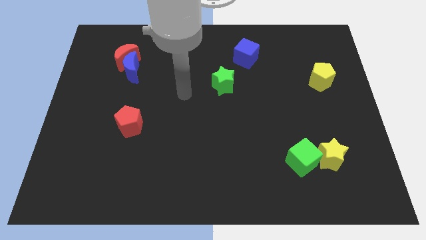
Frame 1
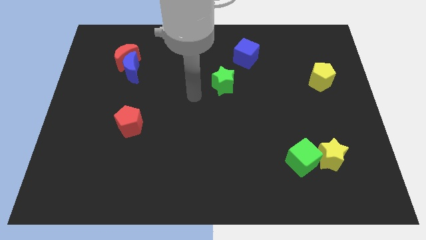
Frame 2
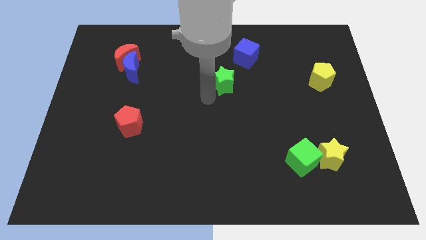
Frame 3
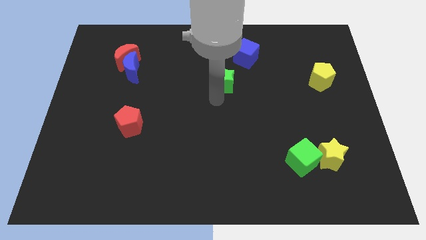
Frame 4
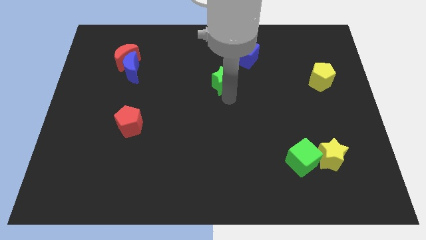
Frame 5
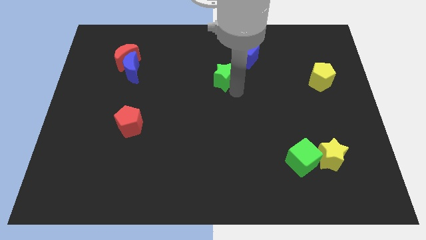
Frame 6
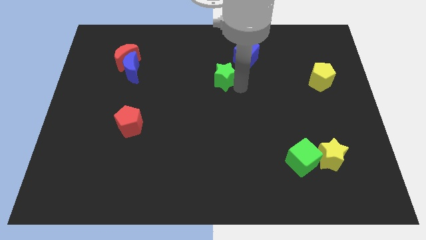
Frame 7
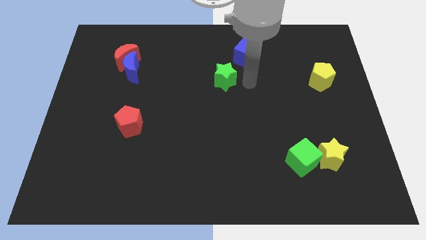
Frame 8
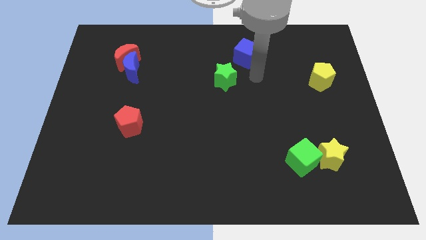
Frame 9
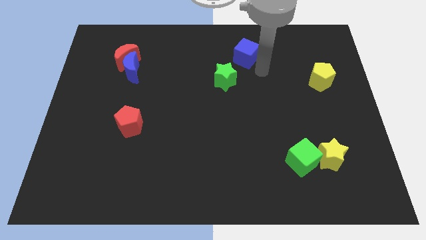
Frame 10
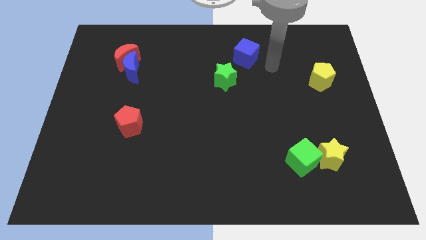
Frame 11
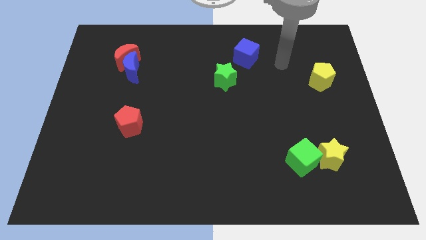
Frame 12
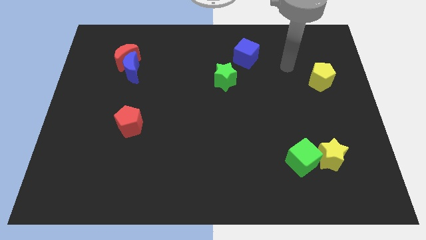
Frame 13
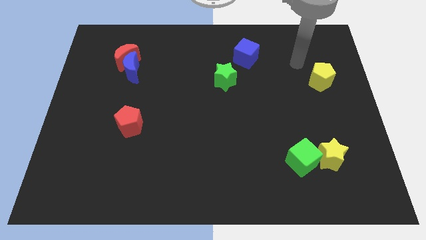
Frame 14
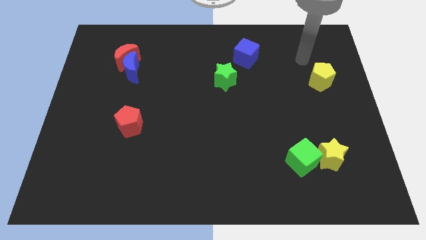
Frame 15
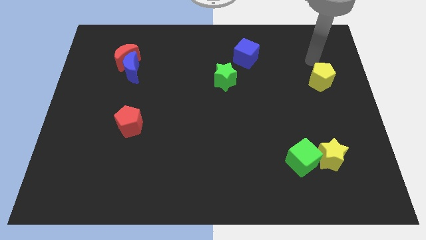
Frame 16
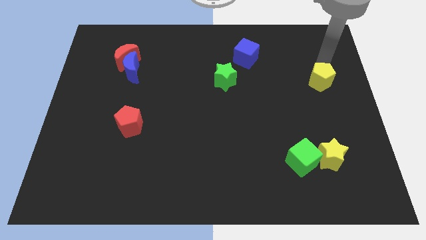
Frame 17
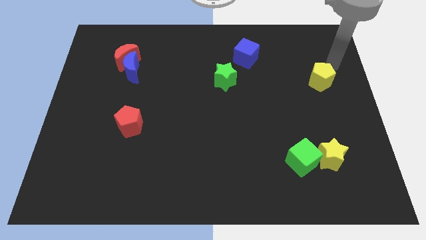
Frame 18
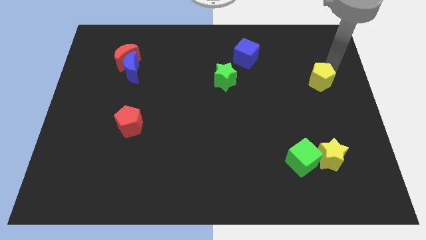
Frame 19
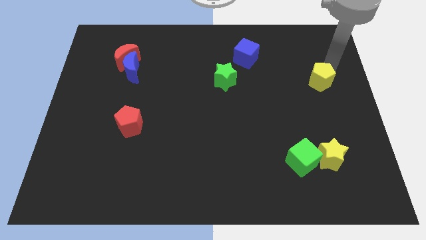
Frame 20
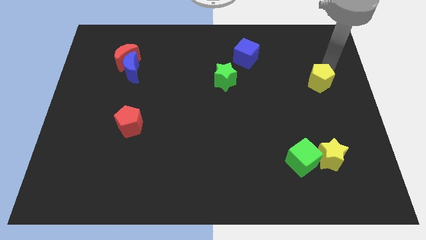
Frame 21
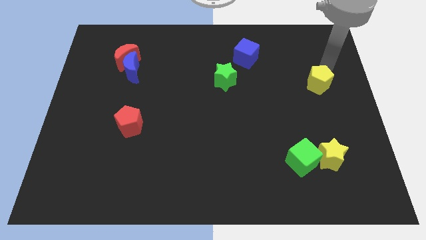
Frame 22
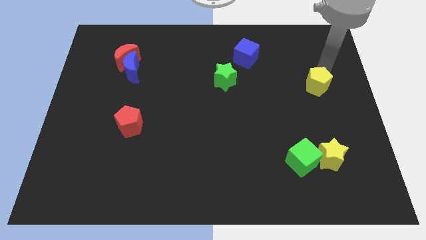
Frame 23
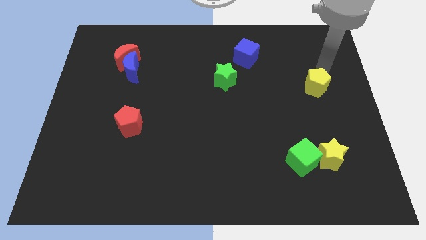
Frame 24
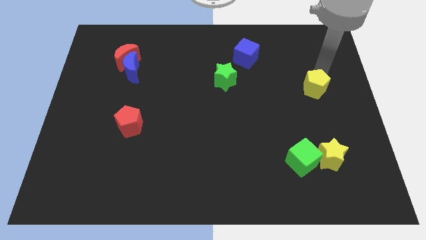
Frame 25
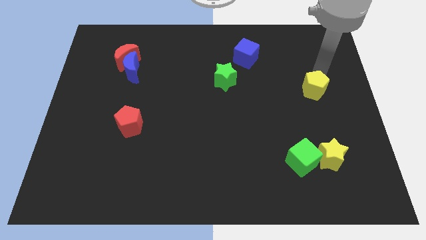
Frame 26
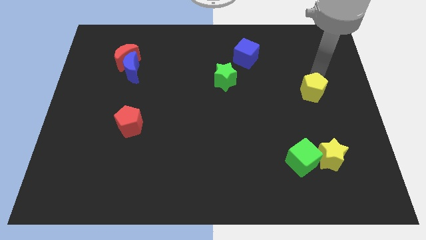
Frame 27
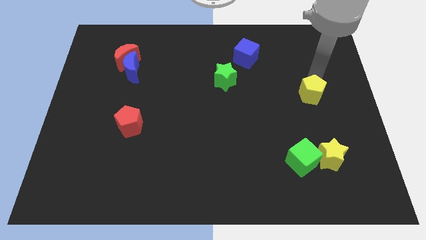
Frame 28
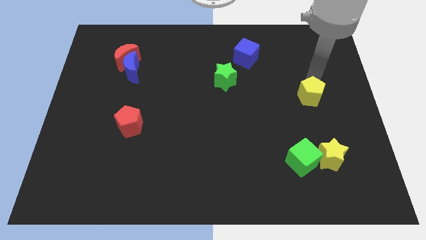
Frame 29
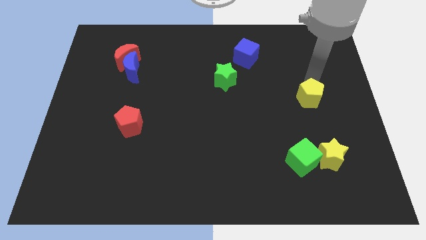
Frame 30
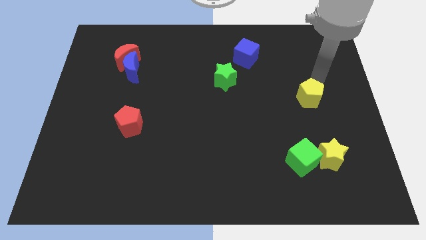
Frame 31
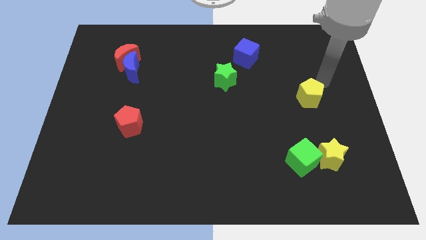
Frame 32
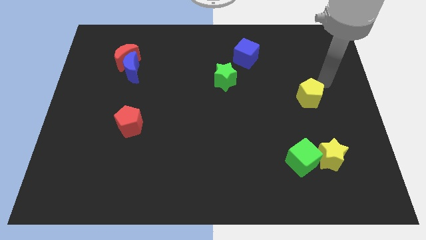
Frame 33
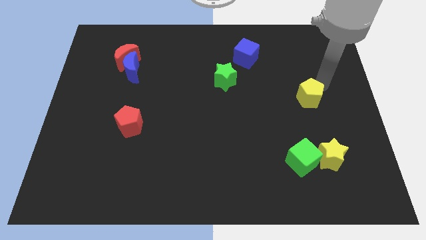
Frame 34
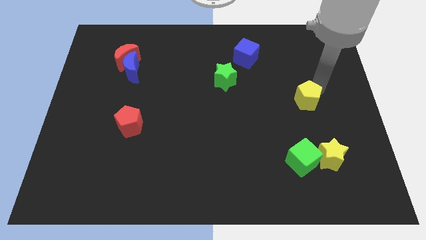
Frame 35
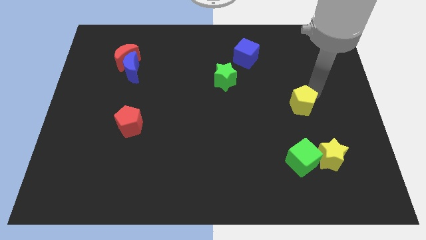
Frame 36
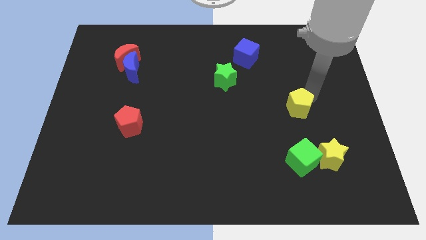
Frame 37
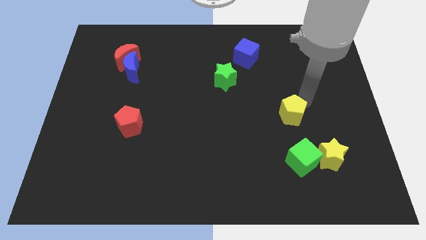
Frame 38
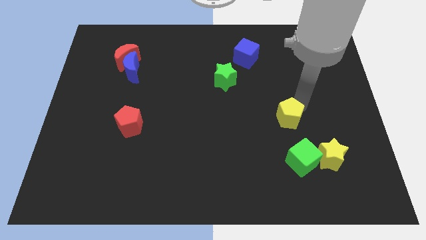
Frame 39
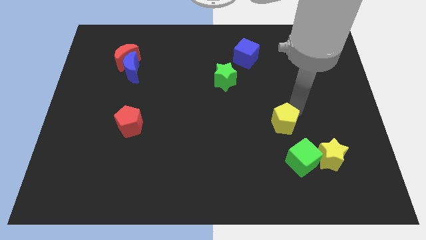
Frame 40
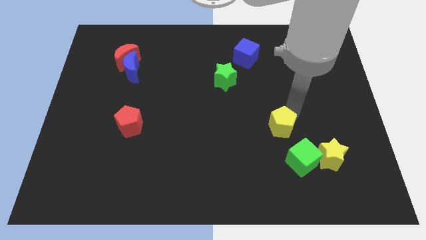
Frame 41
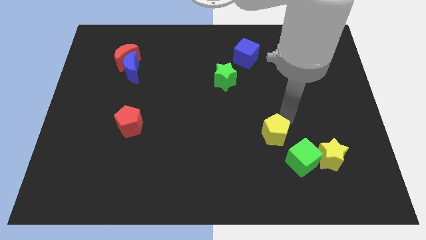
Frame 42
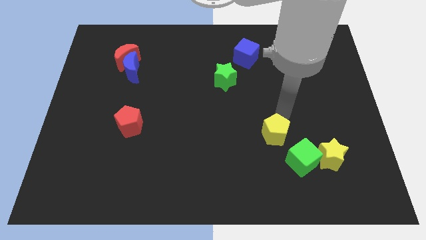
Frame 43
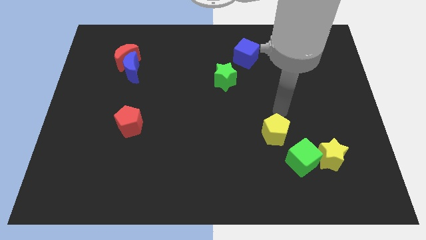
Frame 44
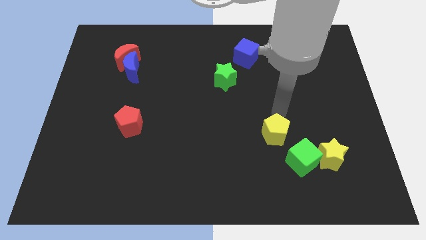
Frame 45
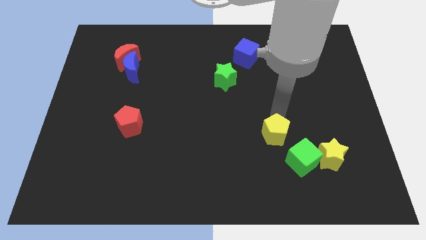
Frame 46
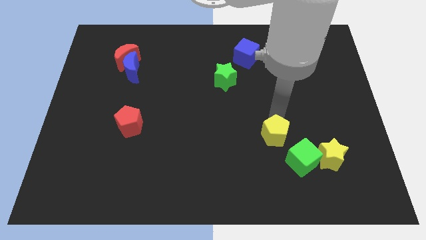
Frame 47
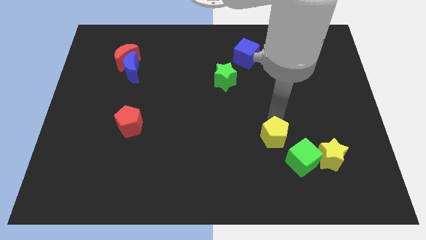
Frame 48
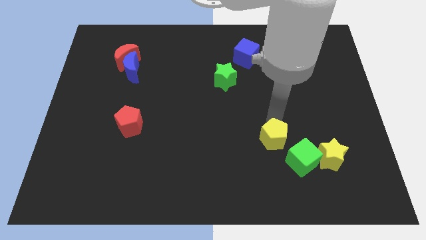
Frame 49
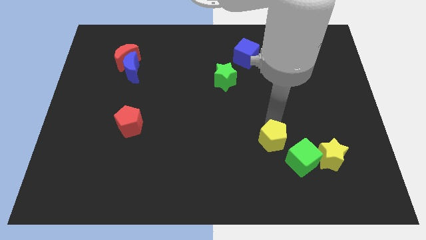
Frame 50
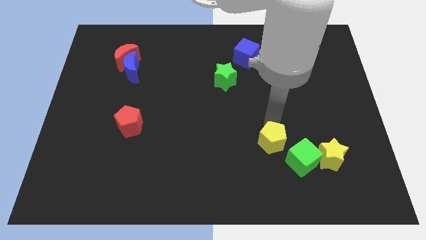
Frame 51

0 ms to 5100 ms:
push the yellow pentagon left of the green cube

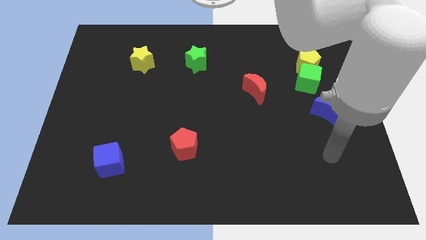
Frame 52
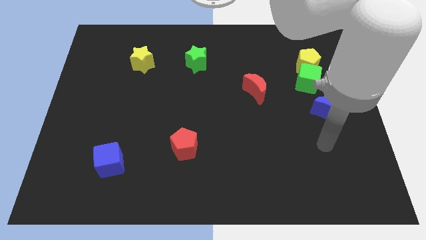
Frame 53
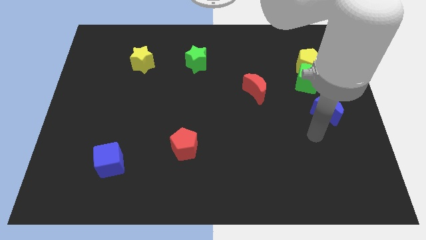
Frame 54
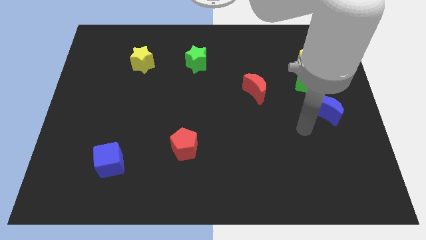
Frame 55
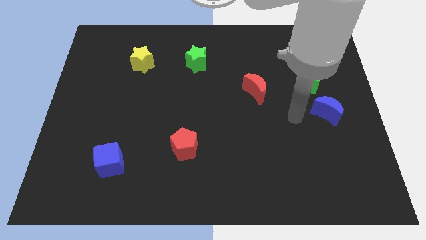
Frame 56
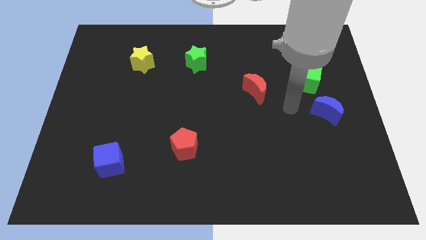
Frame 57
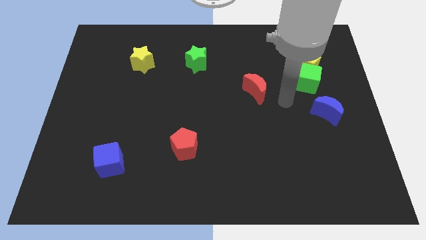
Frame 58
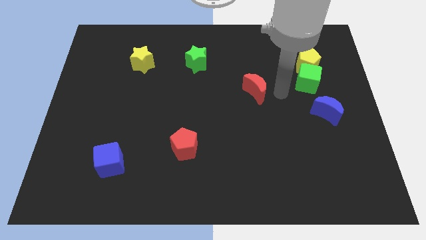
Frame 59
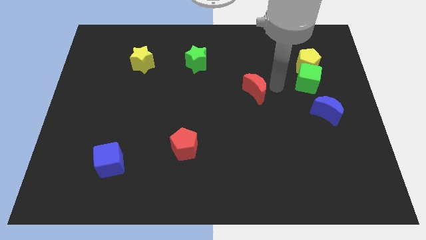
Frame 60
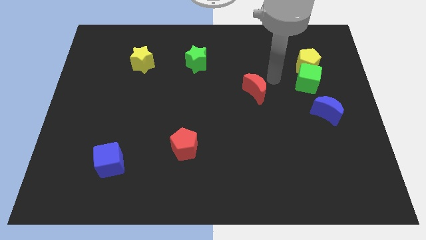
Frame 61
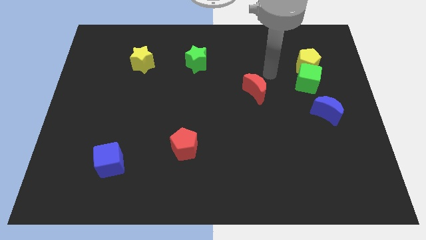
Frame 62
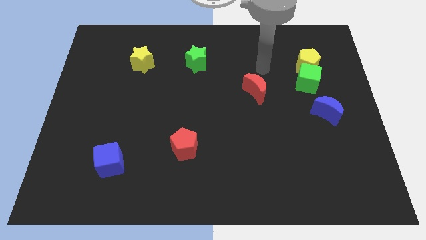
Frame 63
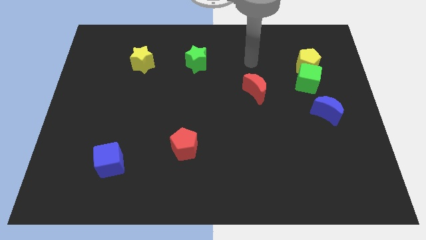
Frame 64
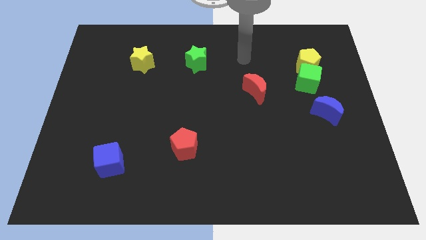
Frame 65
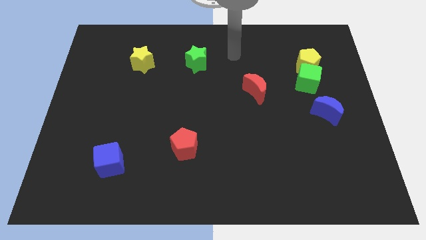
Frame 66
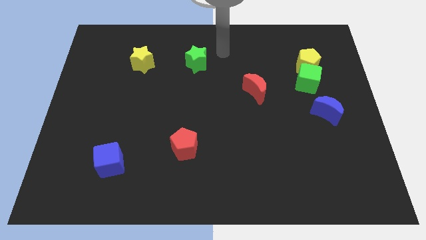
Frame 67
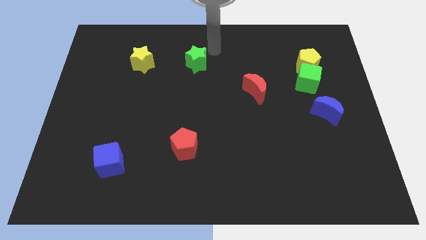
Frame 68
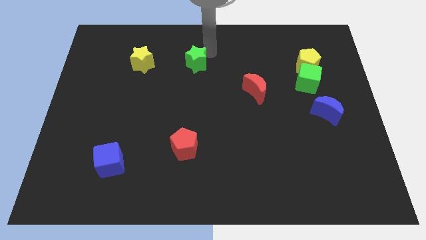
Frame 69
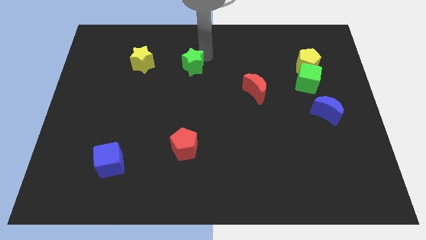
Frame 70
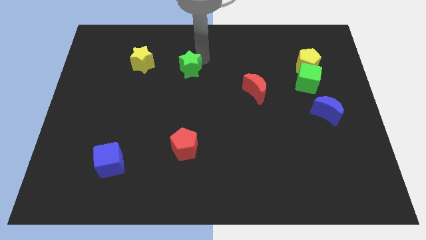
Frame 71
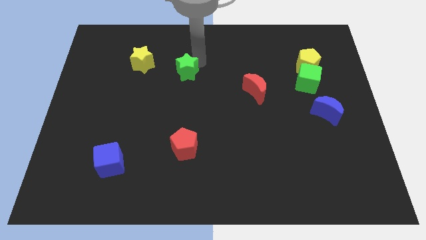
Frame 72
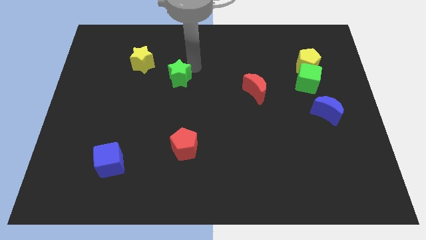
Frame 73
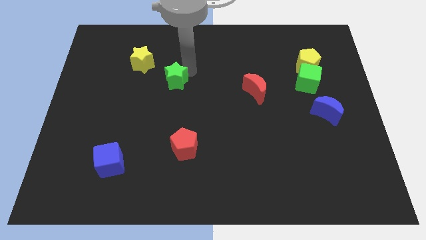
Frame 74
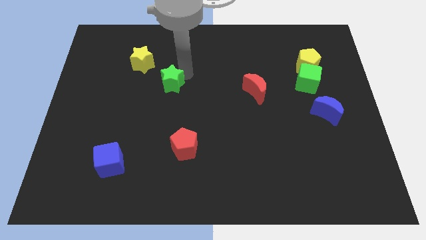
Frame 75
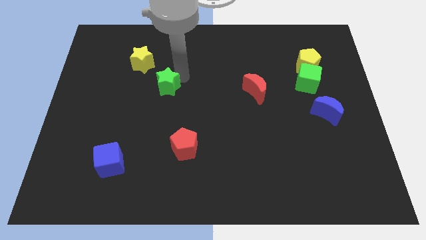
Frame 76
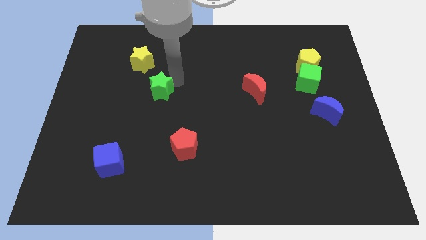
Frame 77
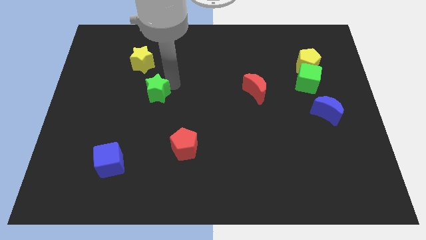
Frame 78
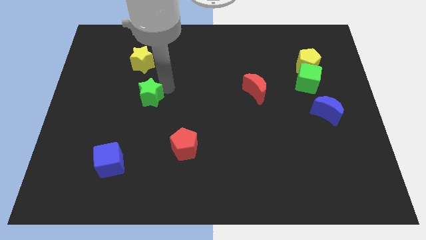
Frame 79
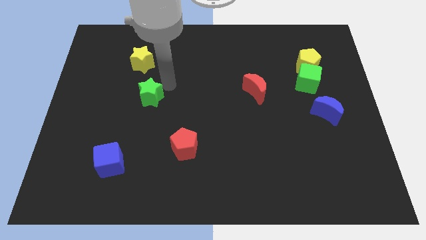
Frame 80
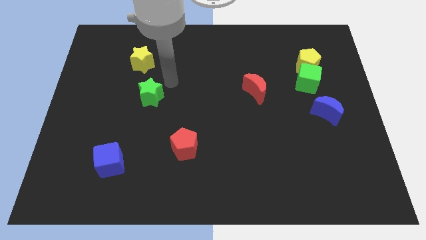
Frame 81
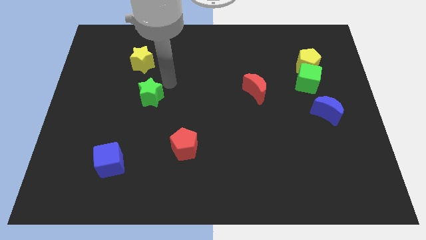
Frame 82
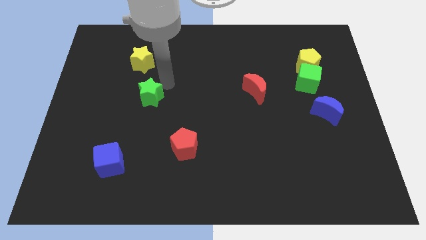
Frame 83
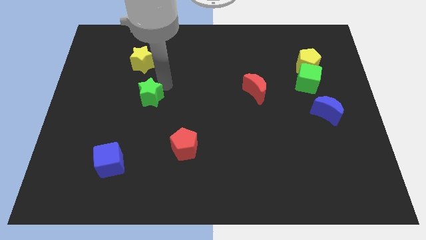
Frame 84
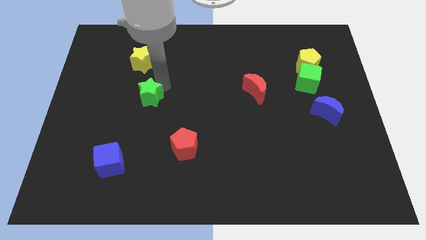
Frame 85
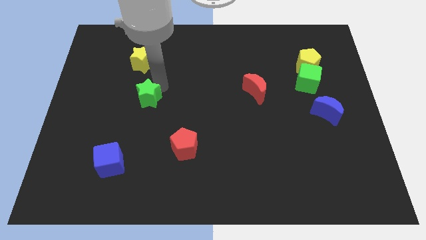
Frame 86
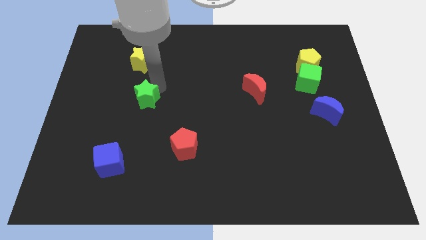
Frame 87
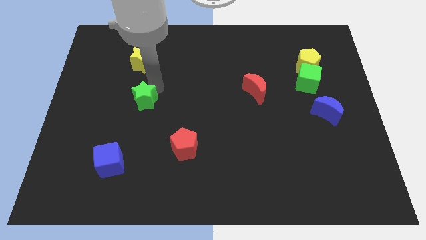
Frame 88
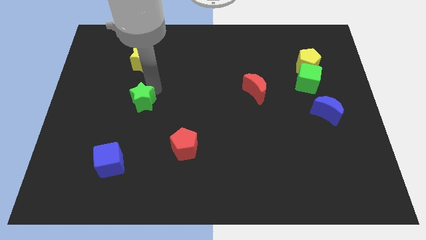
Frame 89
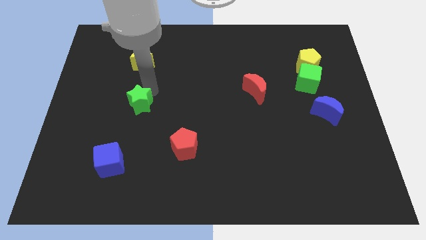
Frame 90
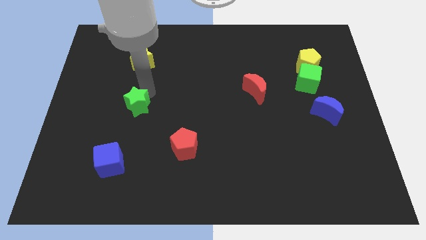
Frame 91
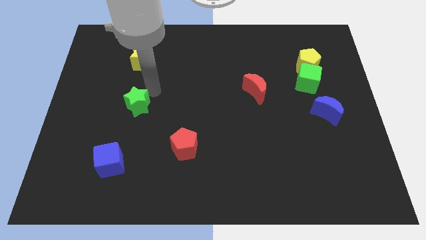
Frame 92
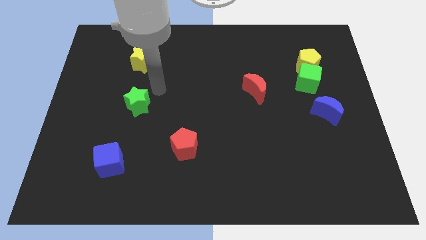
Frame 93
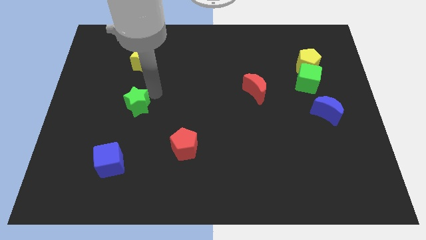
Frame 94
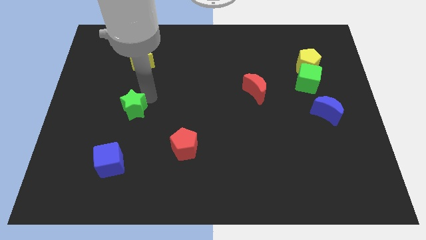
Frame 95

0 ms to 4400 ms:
put the green star above the blue cube
